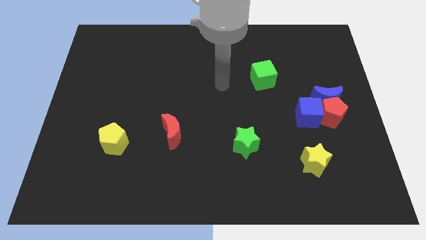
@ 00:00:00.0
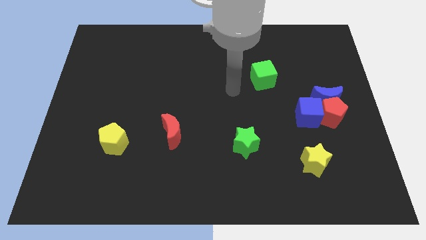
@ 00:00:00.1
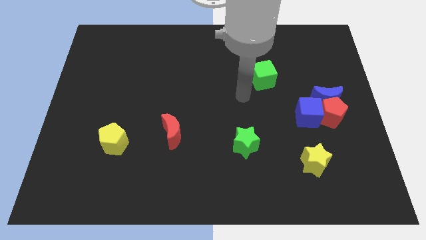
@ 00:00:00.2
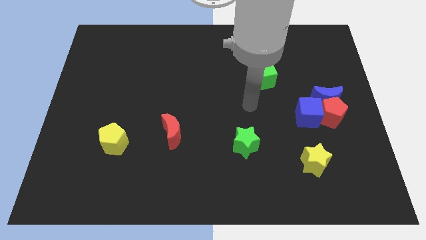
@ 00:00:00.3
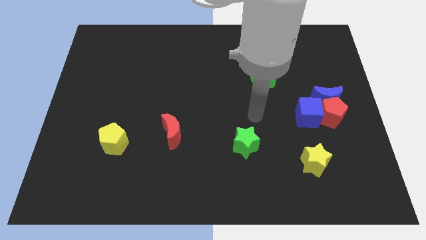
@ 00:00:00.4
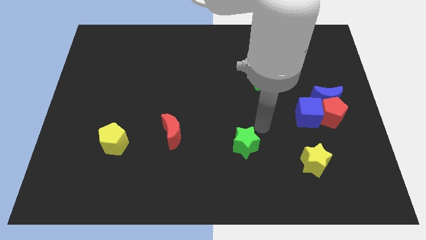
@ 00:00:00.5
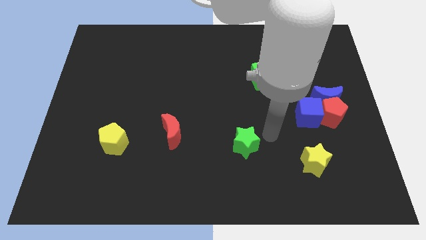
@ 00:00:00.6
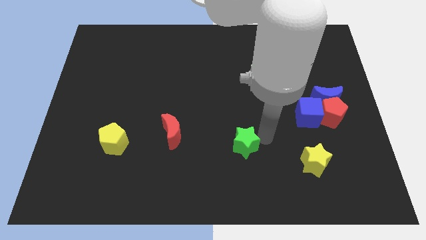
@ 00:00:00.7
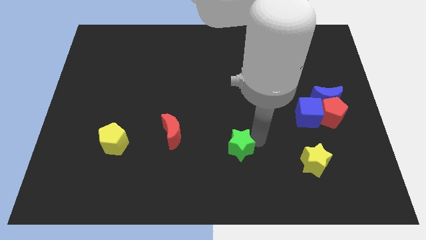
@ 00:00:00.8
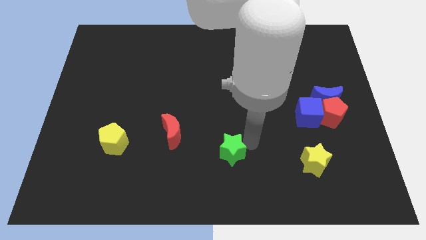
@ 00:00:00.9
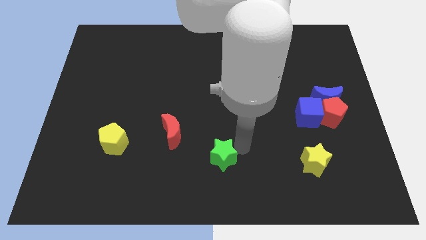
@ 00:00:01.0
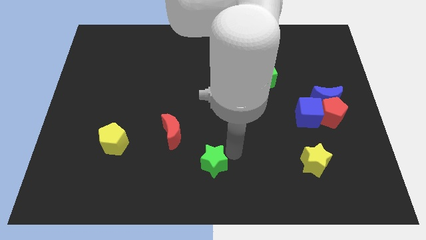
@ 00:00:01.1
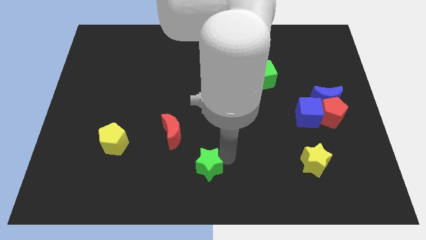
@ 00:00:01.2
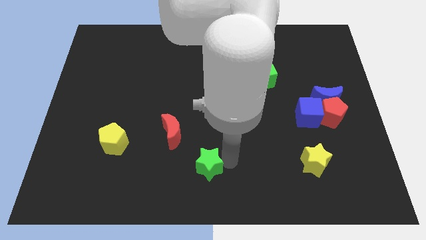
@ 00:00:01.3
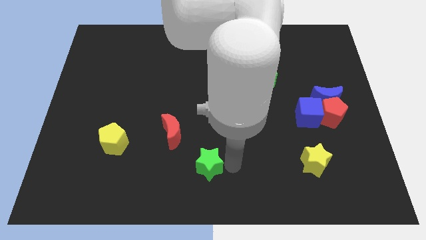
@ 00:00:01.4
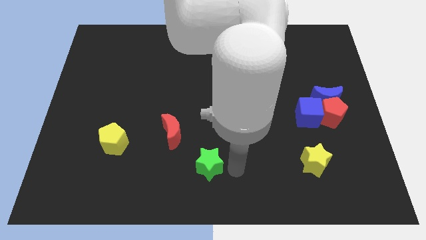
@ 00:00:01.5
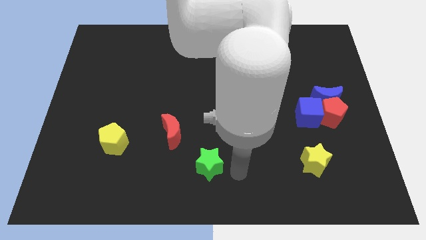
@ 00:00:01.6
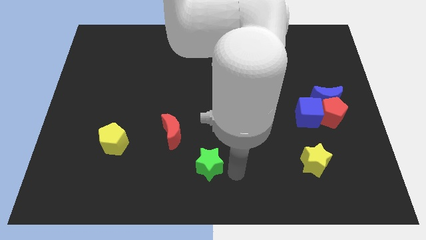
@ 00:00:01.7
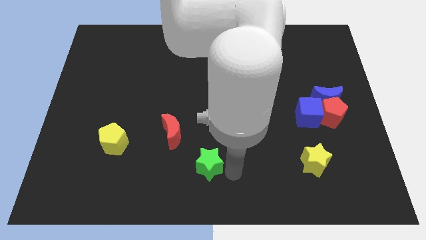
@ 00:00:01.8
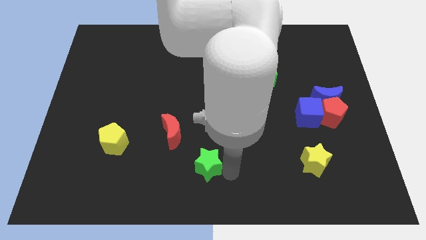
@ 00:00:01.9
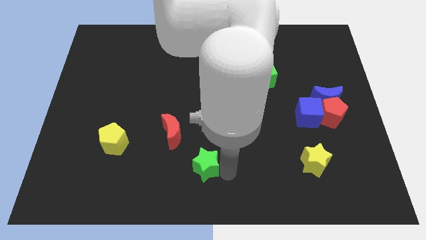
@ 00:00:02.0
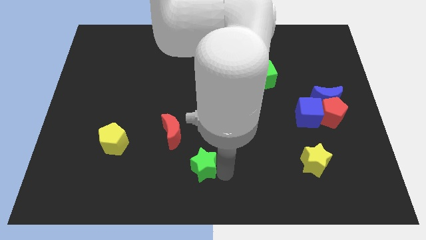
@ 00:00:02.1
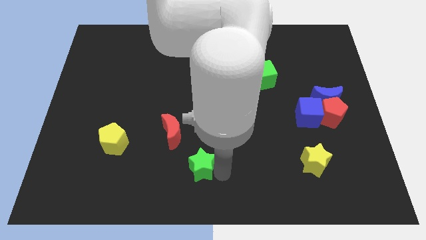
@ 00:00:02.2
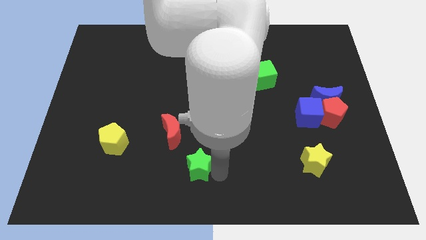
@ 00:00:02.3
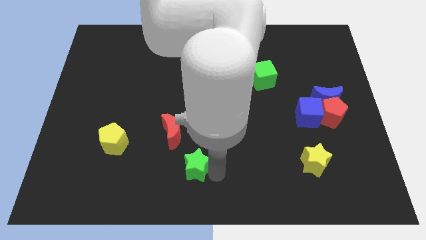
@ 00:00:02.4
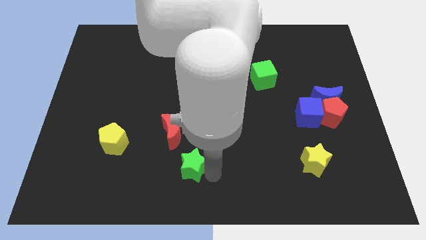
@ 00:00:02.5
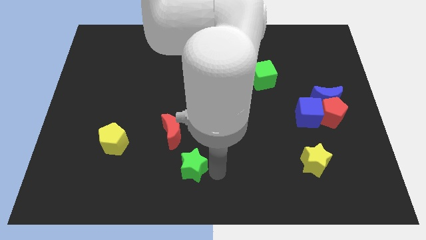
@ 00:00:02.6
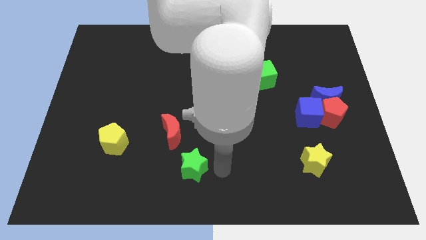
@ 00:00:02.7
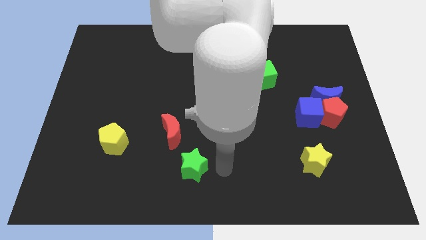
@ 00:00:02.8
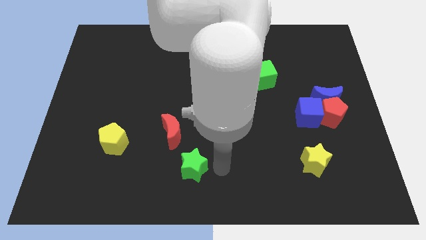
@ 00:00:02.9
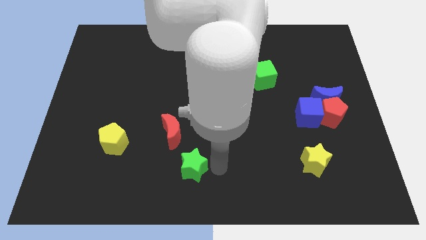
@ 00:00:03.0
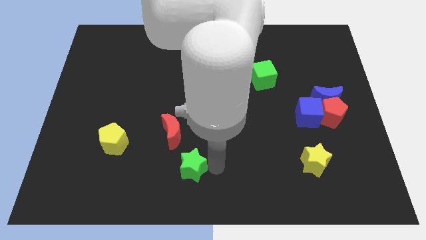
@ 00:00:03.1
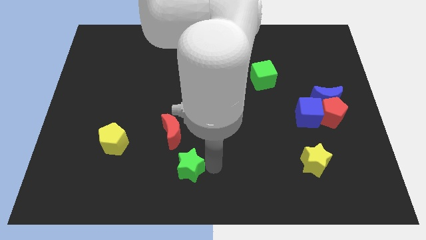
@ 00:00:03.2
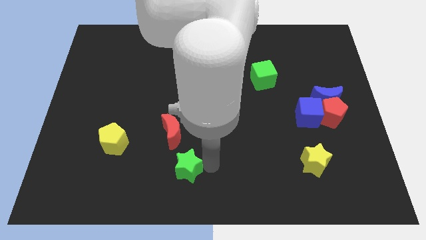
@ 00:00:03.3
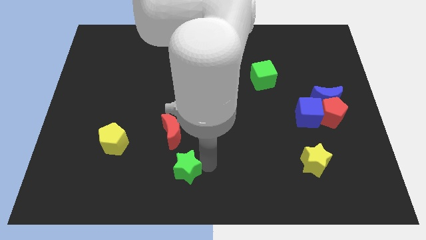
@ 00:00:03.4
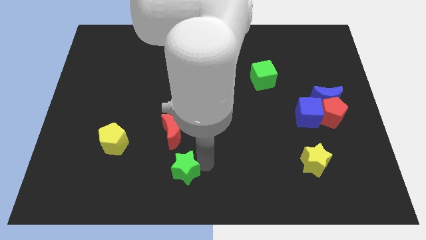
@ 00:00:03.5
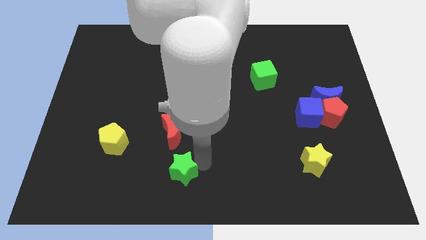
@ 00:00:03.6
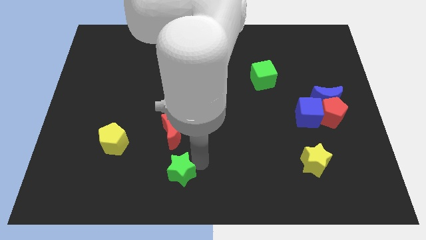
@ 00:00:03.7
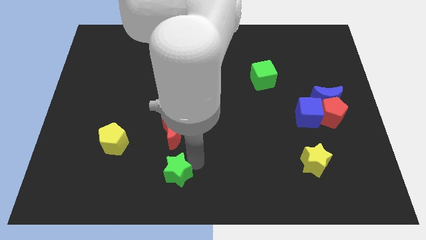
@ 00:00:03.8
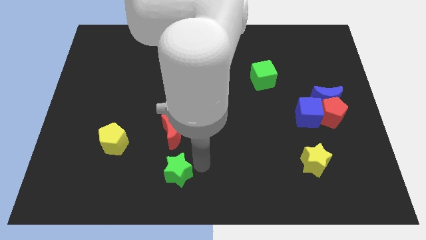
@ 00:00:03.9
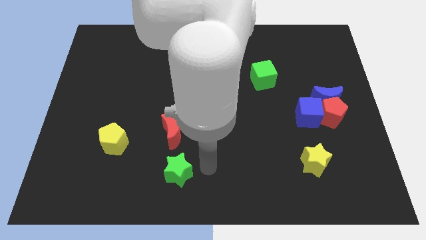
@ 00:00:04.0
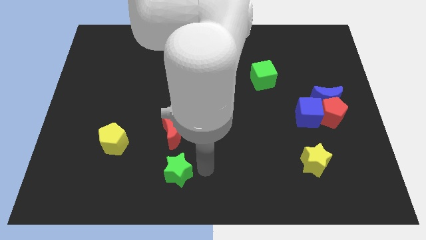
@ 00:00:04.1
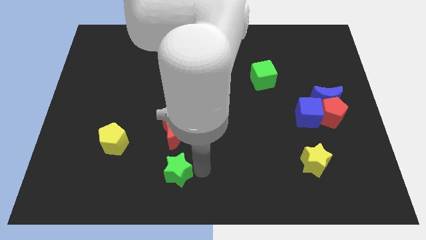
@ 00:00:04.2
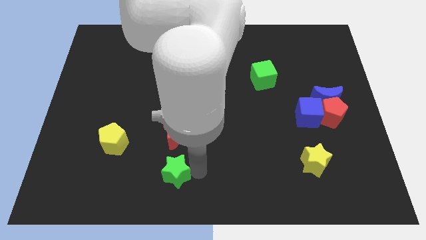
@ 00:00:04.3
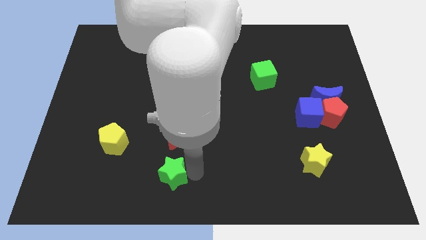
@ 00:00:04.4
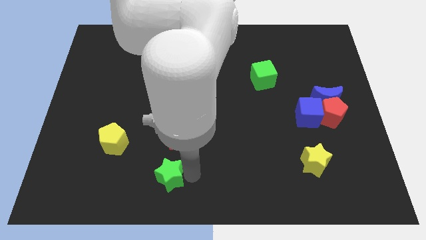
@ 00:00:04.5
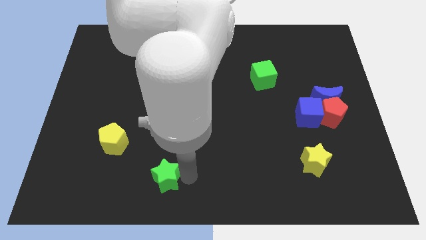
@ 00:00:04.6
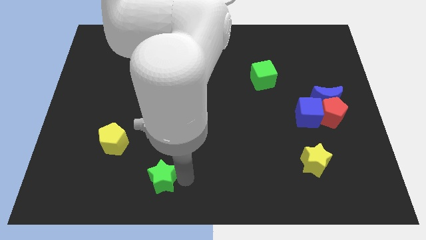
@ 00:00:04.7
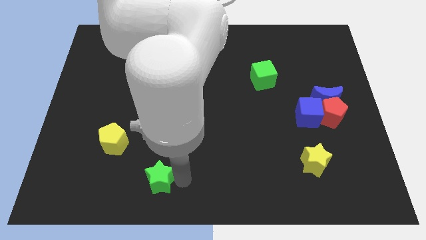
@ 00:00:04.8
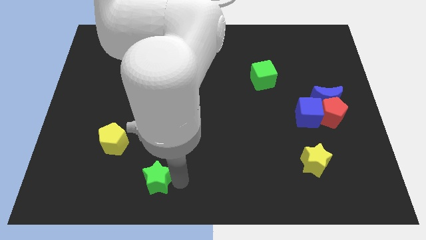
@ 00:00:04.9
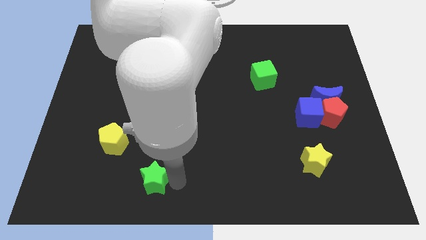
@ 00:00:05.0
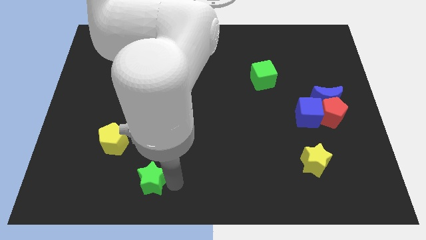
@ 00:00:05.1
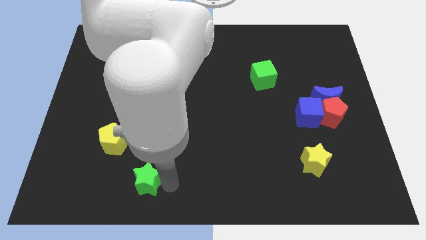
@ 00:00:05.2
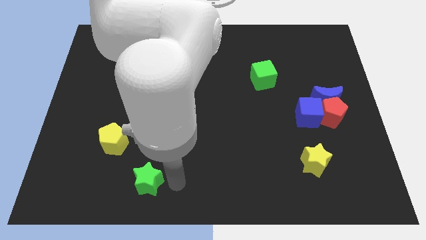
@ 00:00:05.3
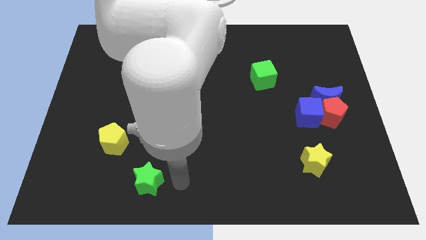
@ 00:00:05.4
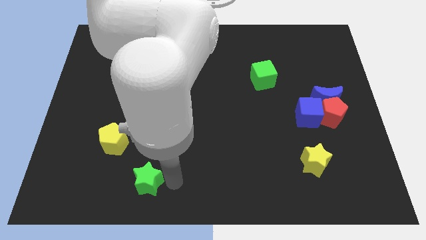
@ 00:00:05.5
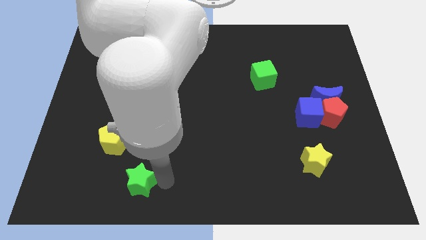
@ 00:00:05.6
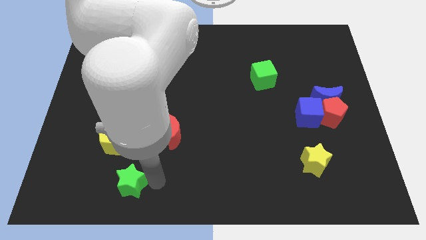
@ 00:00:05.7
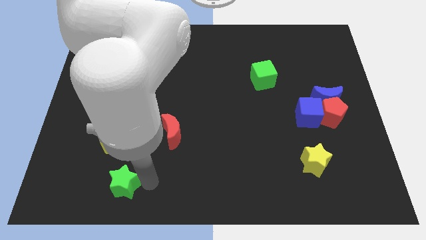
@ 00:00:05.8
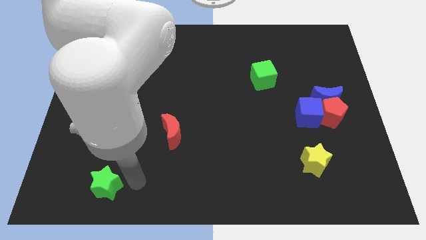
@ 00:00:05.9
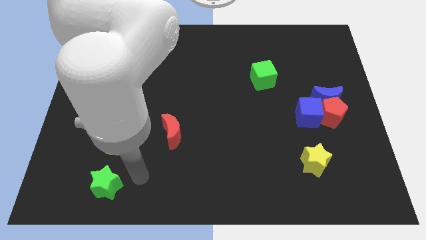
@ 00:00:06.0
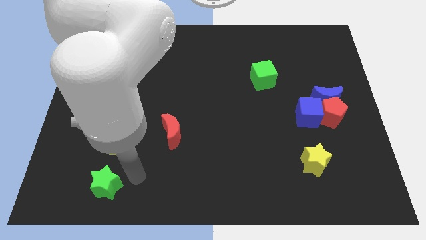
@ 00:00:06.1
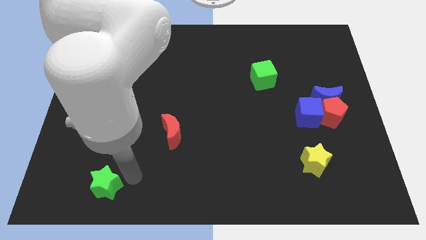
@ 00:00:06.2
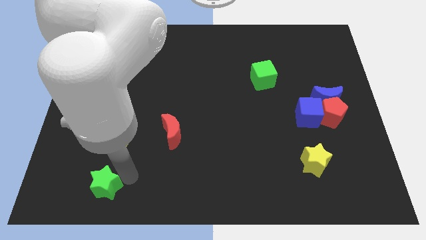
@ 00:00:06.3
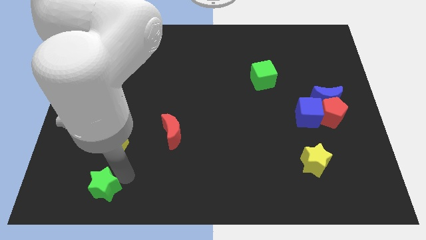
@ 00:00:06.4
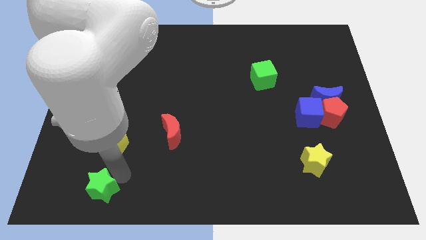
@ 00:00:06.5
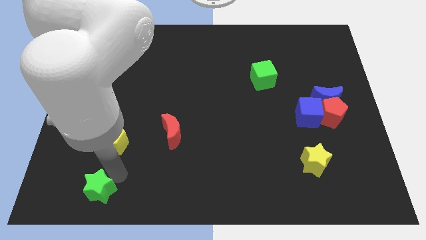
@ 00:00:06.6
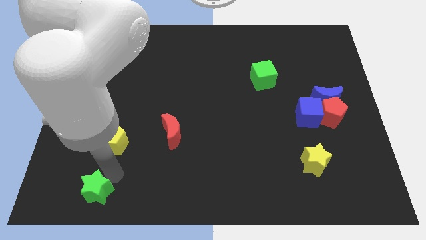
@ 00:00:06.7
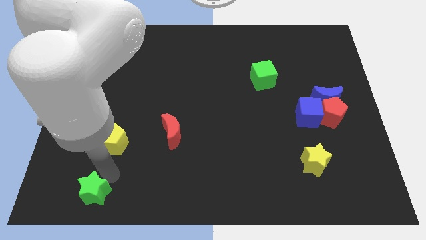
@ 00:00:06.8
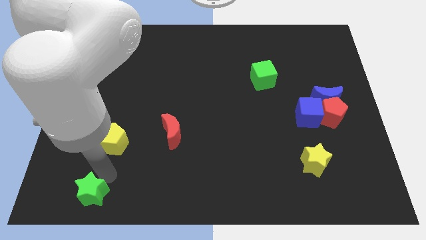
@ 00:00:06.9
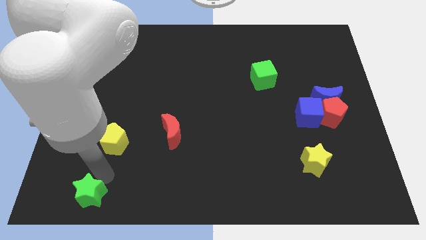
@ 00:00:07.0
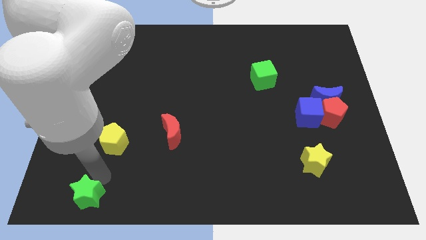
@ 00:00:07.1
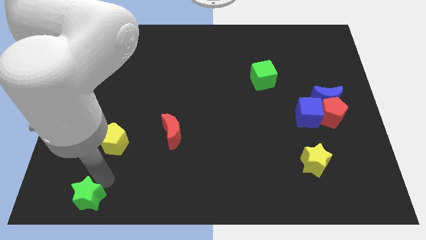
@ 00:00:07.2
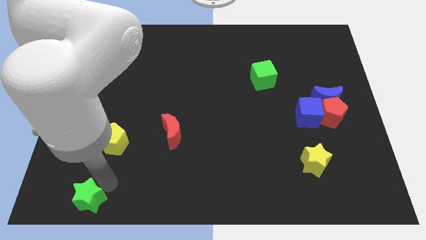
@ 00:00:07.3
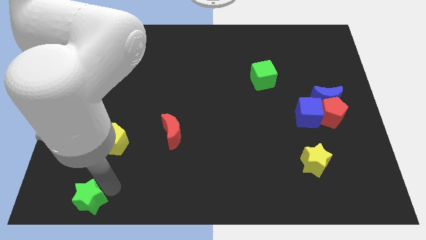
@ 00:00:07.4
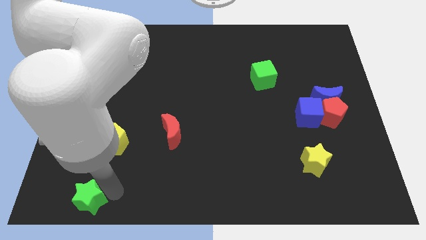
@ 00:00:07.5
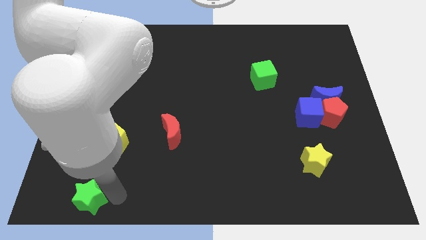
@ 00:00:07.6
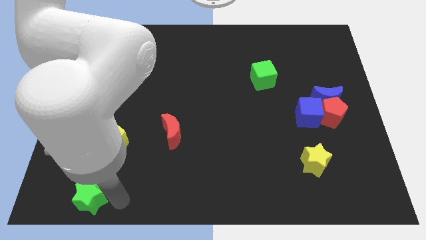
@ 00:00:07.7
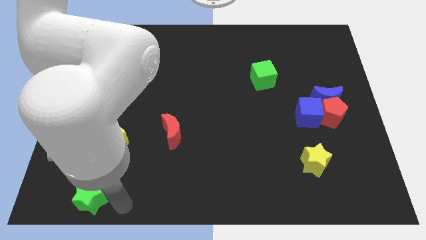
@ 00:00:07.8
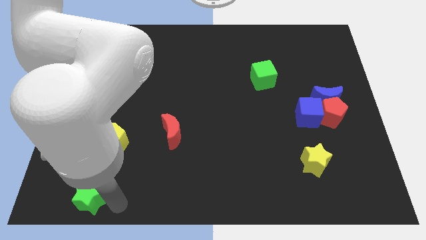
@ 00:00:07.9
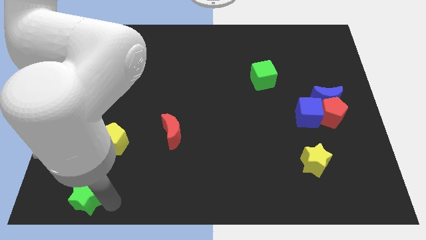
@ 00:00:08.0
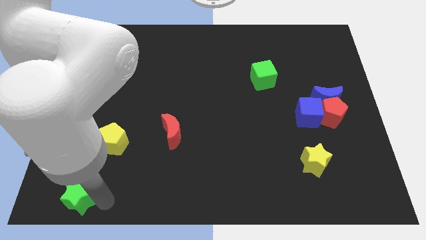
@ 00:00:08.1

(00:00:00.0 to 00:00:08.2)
slide the green star to the bottom left
